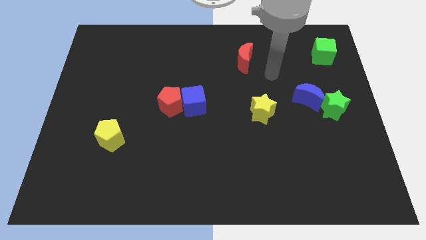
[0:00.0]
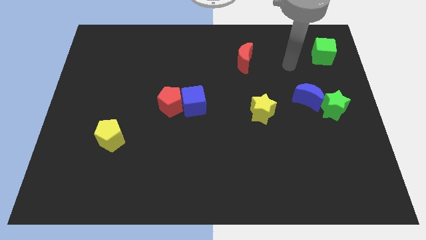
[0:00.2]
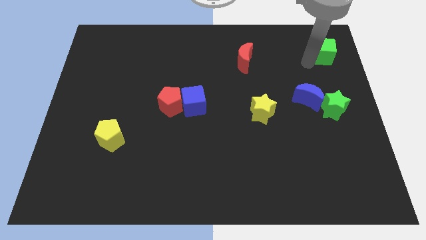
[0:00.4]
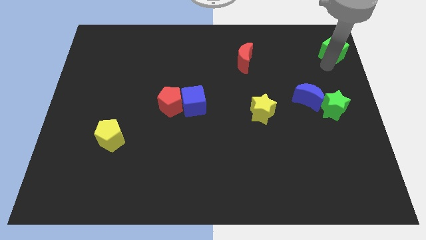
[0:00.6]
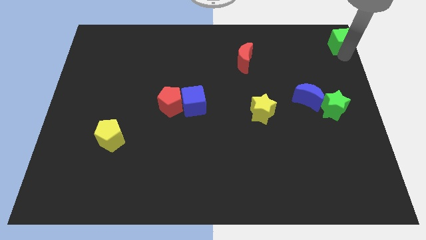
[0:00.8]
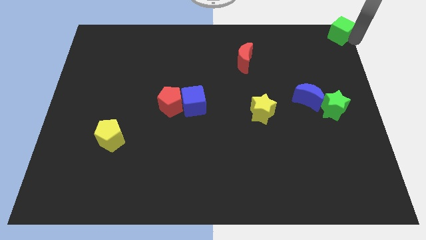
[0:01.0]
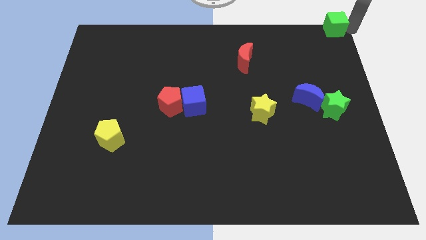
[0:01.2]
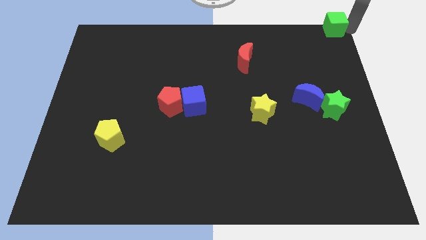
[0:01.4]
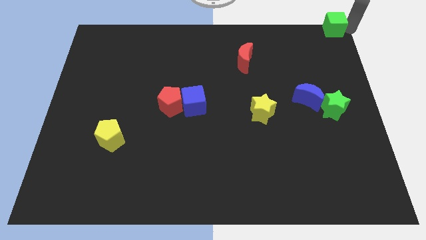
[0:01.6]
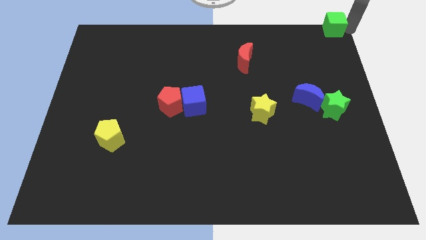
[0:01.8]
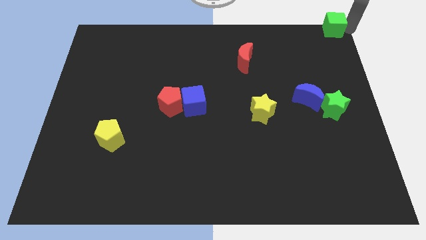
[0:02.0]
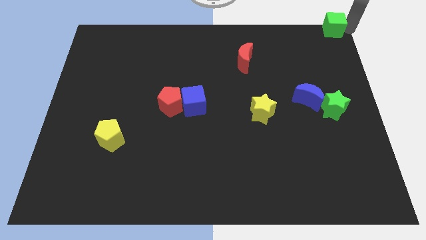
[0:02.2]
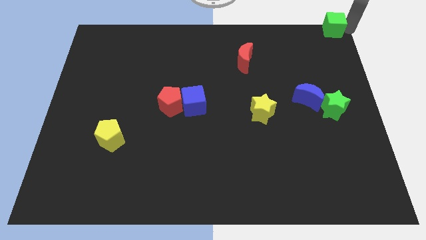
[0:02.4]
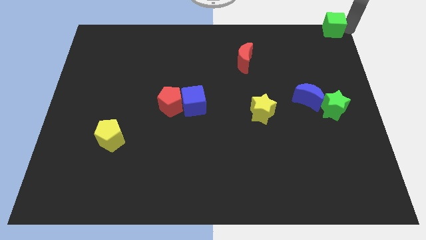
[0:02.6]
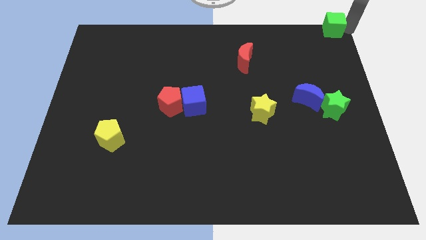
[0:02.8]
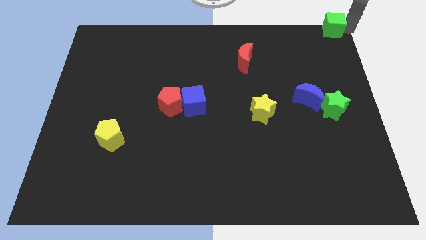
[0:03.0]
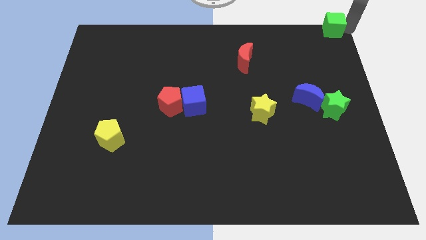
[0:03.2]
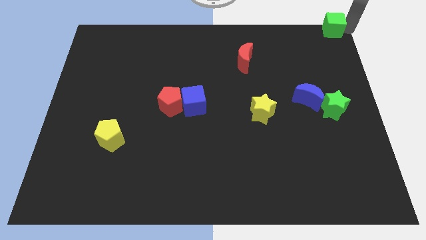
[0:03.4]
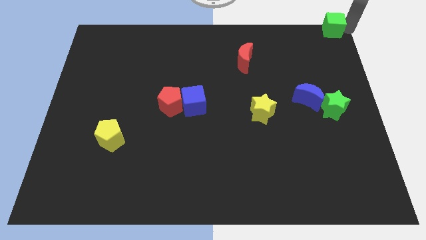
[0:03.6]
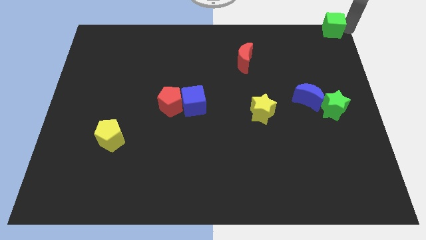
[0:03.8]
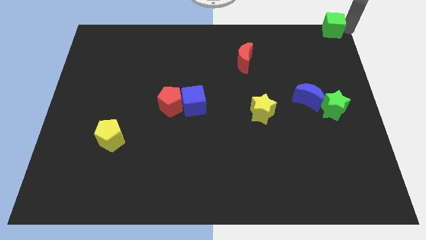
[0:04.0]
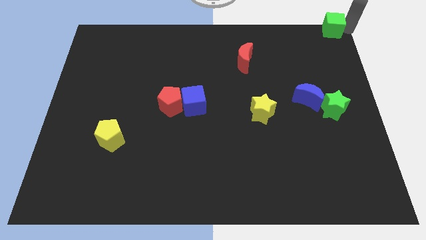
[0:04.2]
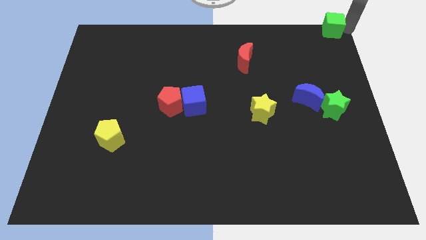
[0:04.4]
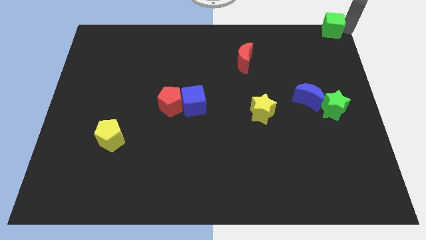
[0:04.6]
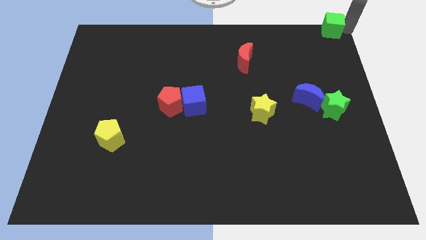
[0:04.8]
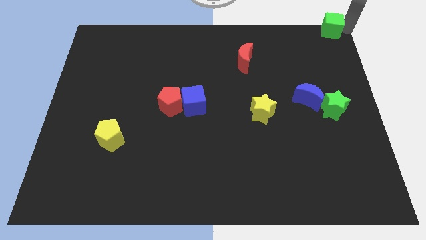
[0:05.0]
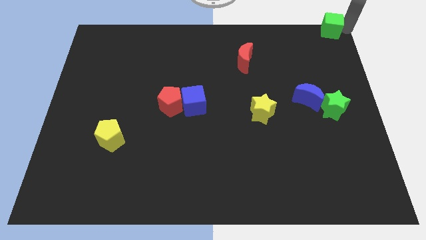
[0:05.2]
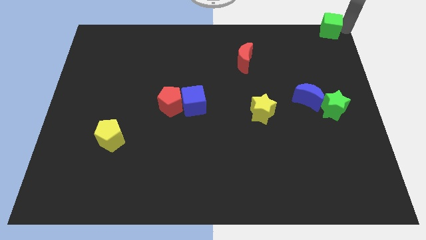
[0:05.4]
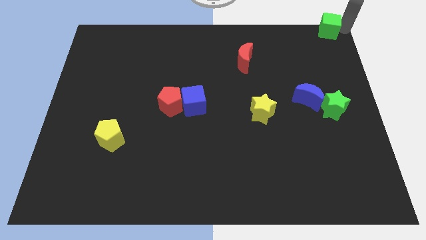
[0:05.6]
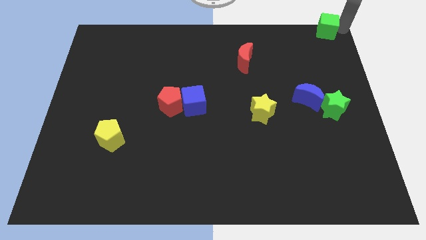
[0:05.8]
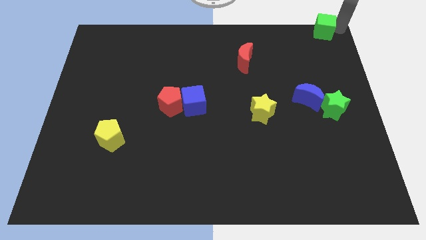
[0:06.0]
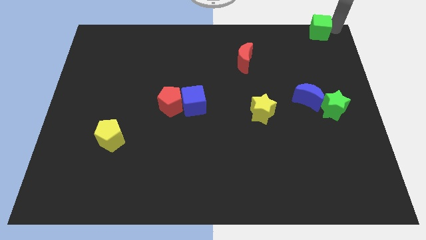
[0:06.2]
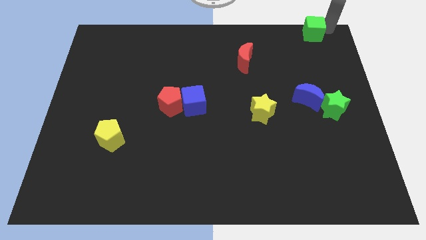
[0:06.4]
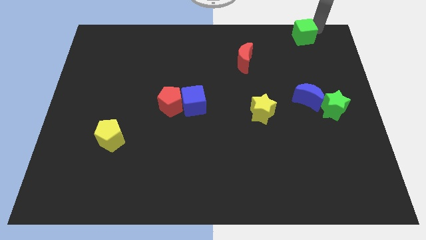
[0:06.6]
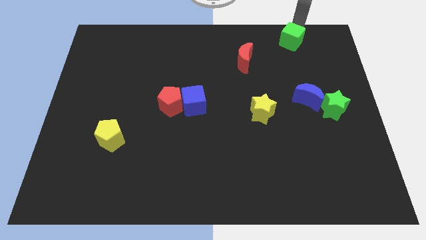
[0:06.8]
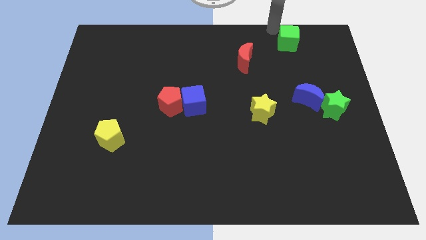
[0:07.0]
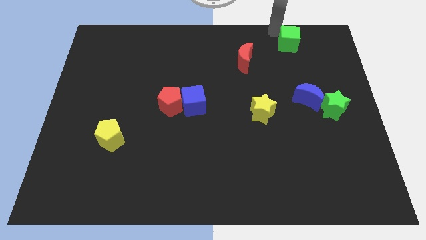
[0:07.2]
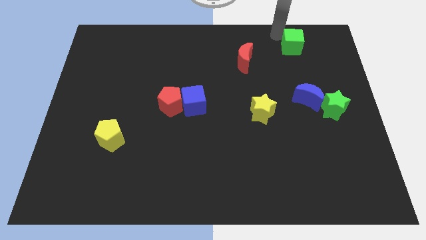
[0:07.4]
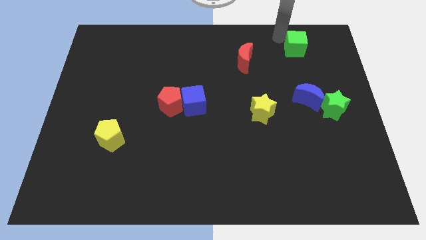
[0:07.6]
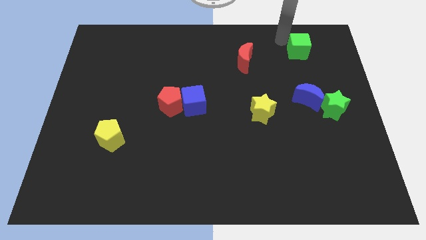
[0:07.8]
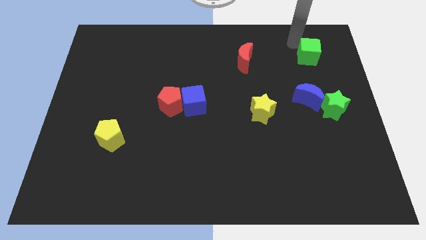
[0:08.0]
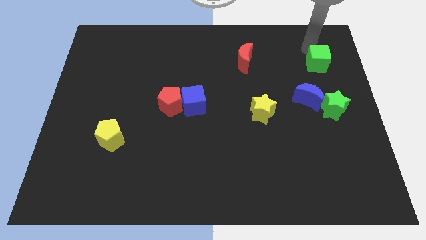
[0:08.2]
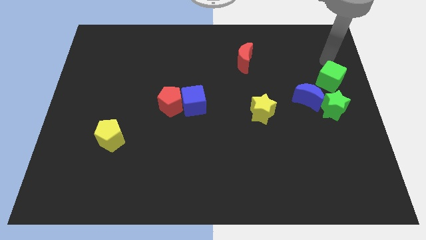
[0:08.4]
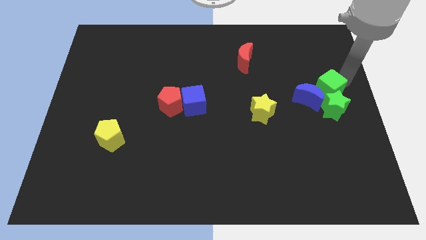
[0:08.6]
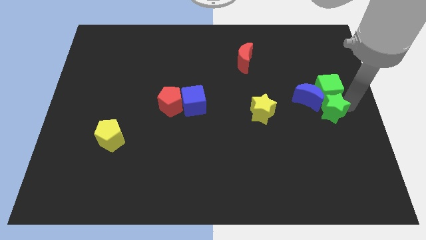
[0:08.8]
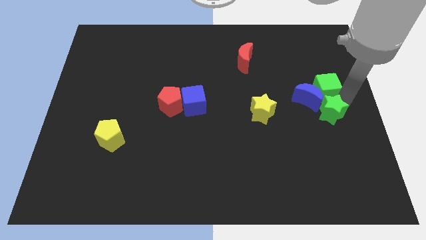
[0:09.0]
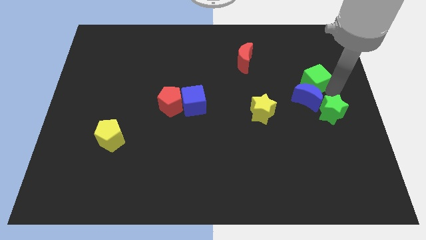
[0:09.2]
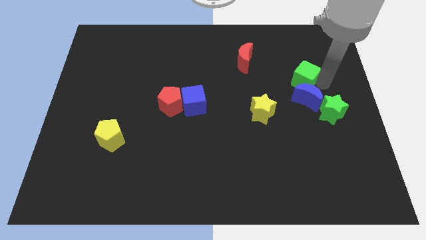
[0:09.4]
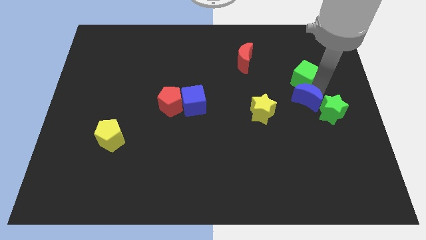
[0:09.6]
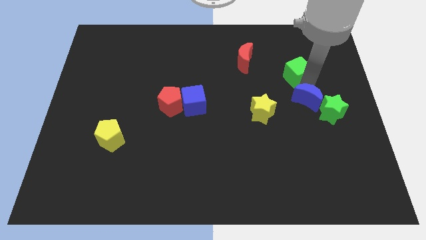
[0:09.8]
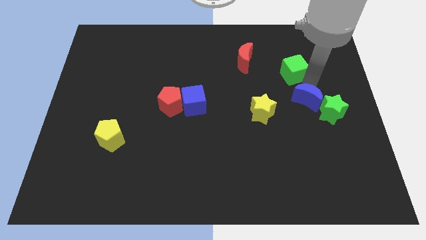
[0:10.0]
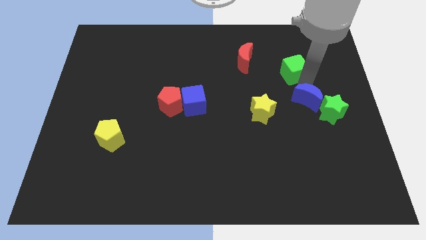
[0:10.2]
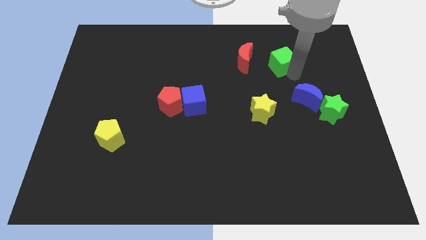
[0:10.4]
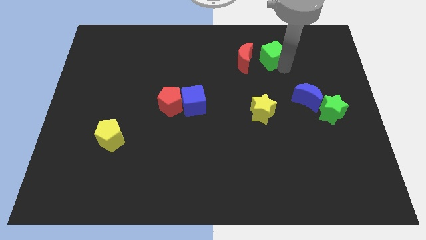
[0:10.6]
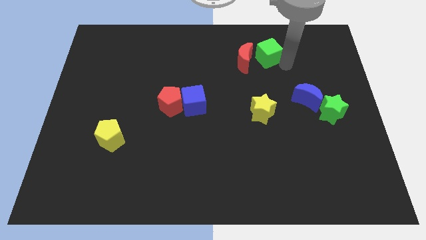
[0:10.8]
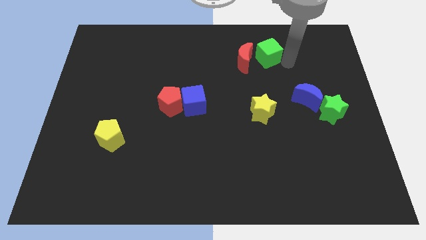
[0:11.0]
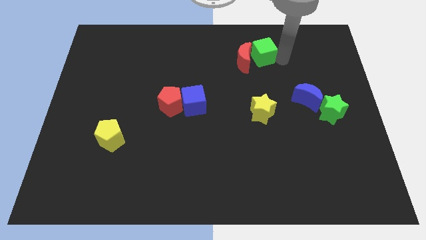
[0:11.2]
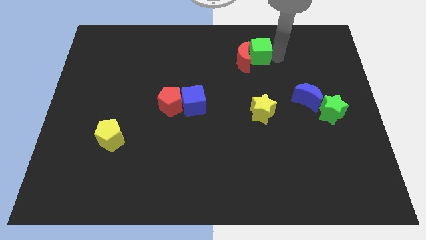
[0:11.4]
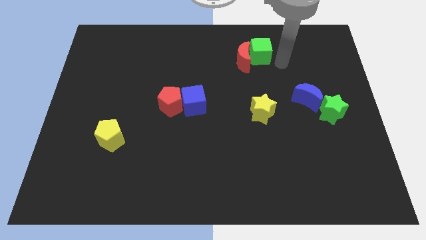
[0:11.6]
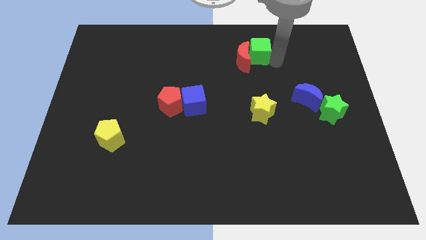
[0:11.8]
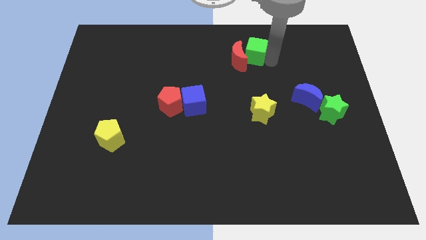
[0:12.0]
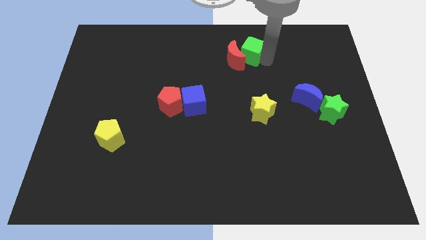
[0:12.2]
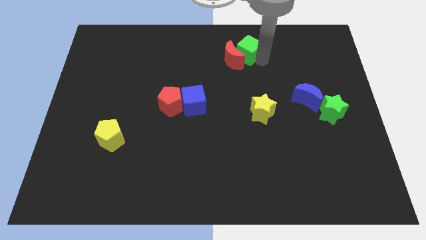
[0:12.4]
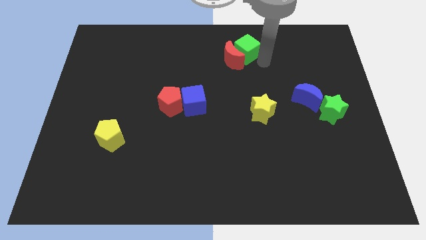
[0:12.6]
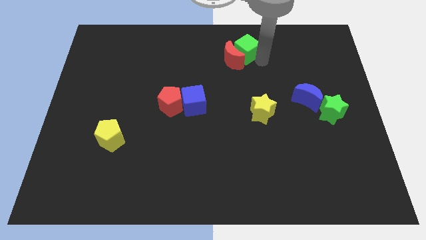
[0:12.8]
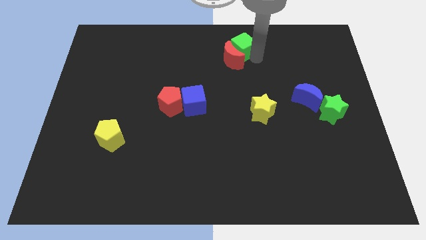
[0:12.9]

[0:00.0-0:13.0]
move the green cube to the towards your base
